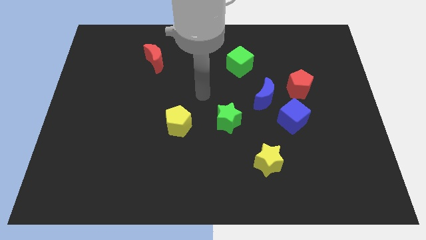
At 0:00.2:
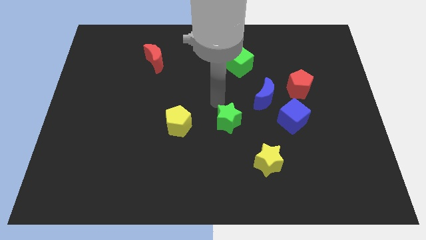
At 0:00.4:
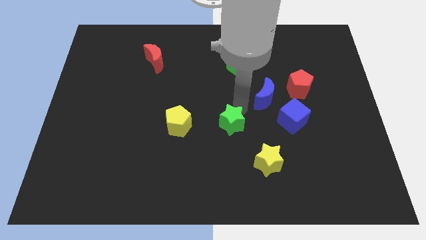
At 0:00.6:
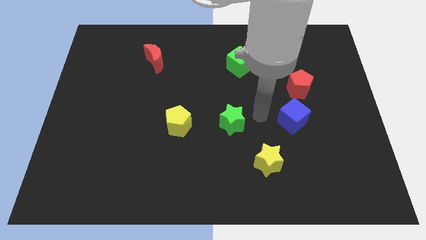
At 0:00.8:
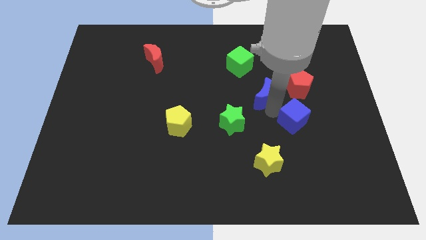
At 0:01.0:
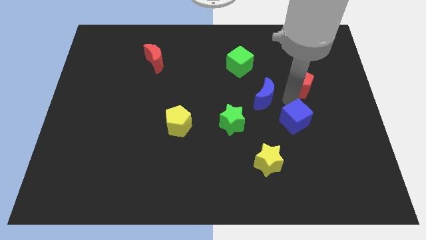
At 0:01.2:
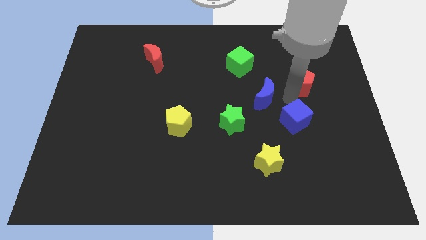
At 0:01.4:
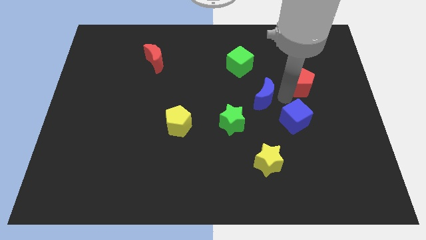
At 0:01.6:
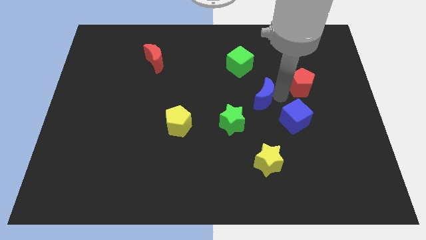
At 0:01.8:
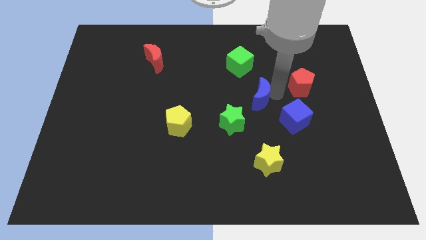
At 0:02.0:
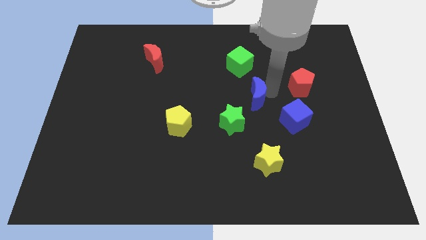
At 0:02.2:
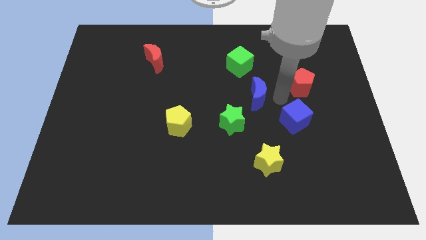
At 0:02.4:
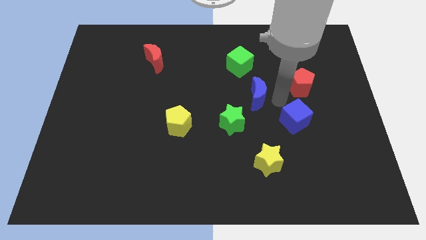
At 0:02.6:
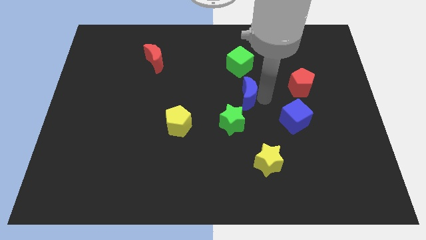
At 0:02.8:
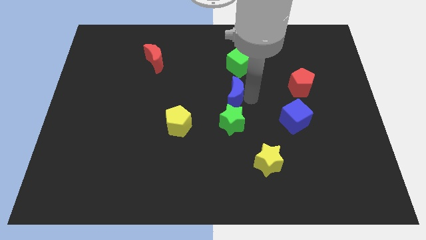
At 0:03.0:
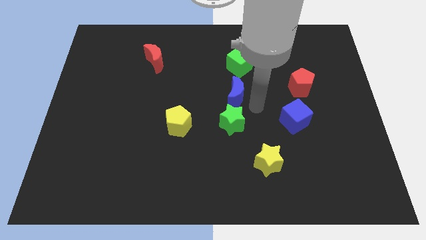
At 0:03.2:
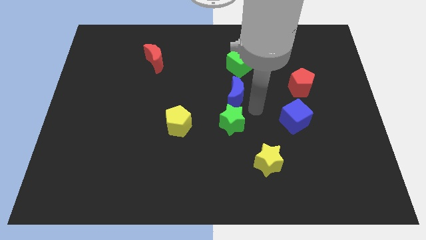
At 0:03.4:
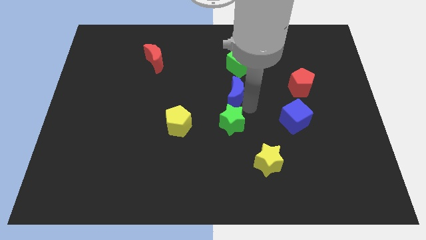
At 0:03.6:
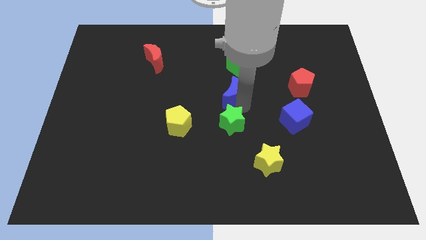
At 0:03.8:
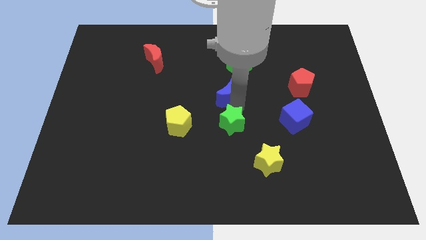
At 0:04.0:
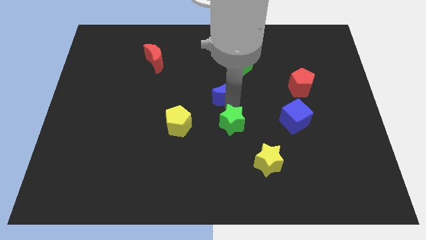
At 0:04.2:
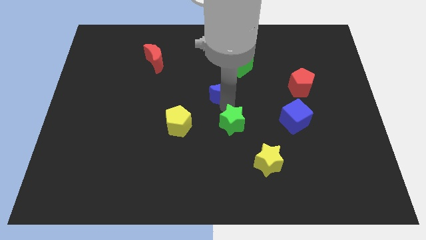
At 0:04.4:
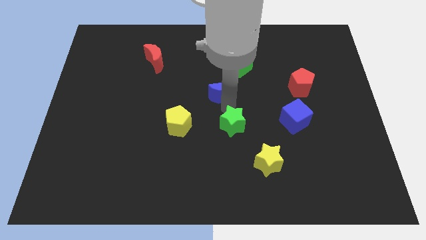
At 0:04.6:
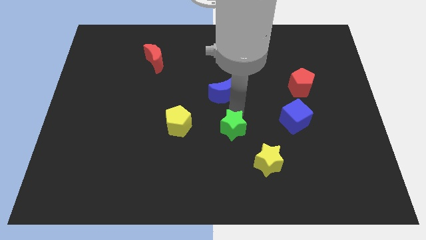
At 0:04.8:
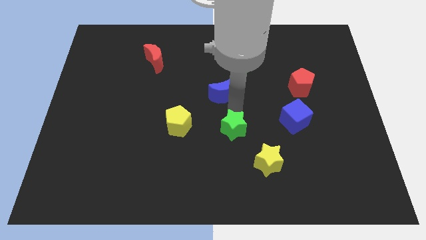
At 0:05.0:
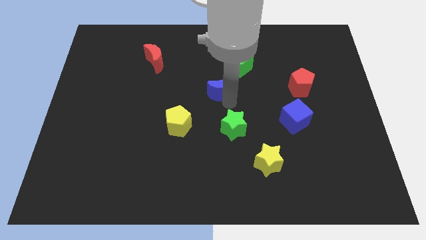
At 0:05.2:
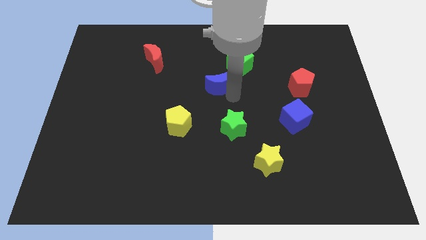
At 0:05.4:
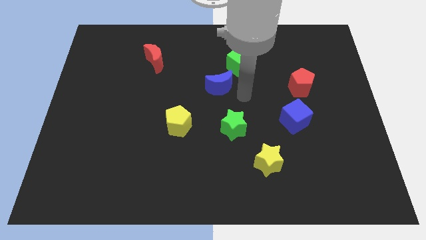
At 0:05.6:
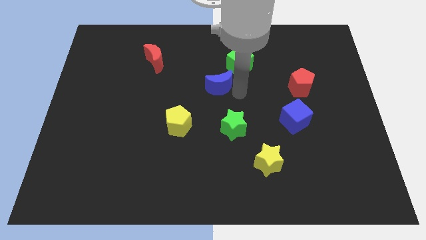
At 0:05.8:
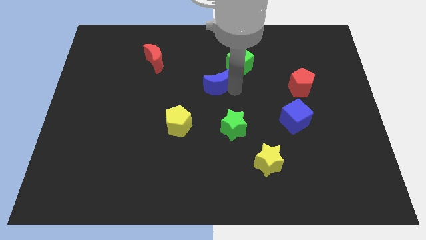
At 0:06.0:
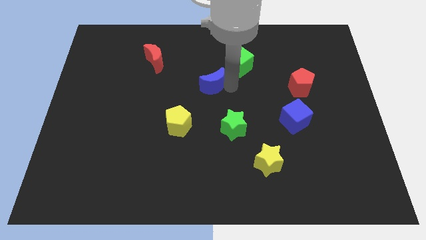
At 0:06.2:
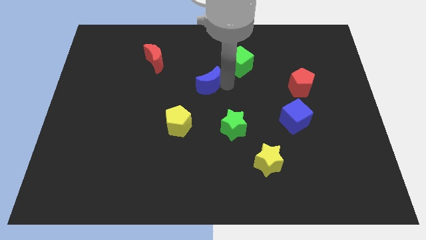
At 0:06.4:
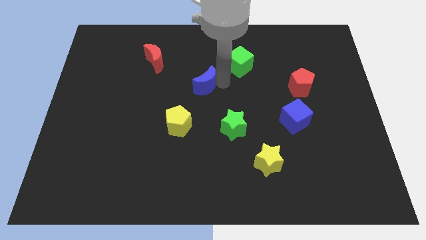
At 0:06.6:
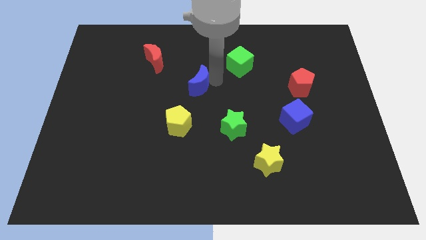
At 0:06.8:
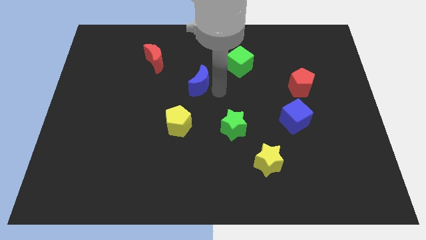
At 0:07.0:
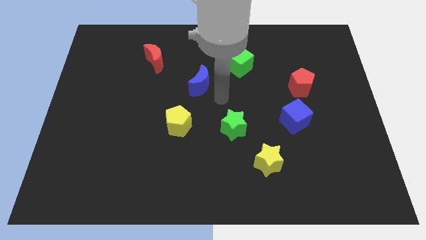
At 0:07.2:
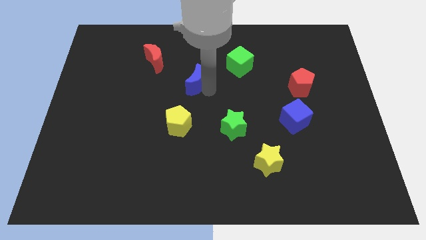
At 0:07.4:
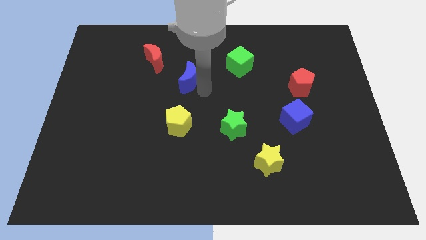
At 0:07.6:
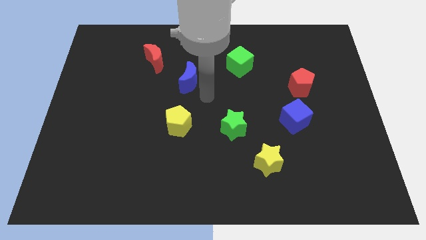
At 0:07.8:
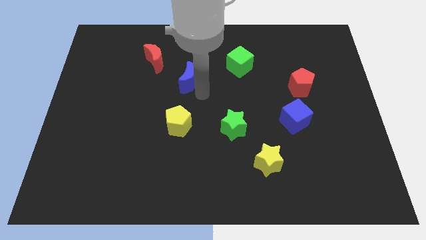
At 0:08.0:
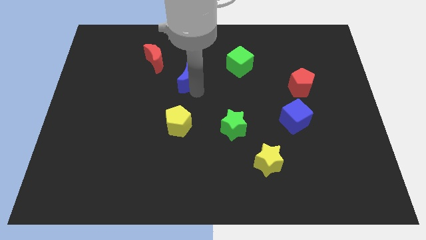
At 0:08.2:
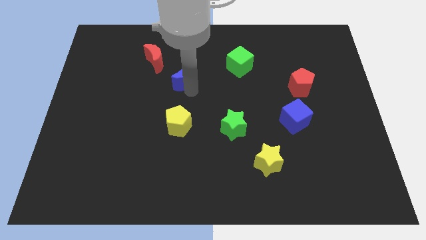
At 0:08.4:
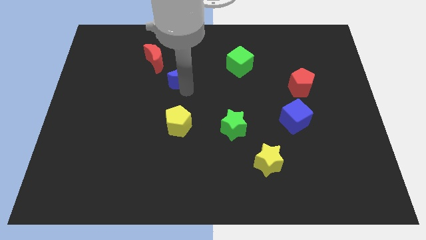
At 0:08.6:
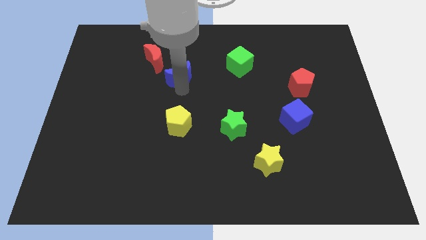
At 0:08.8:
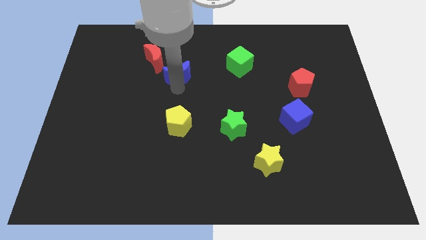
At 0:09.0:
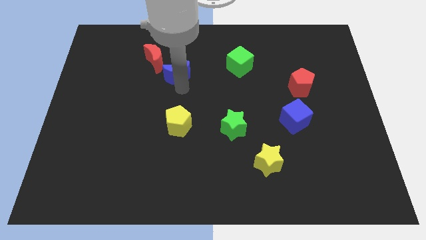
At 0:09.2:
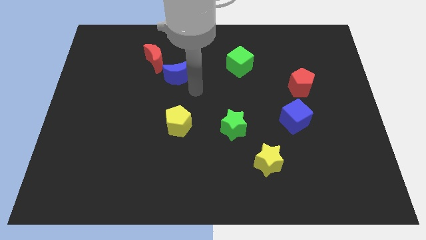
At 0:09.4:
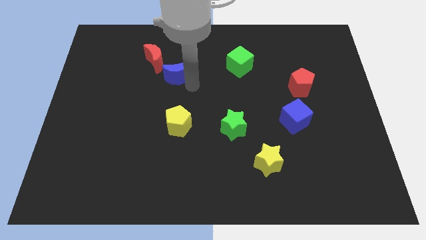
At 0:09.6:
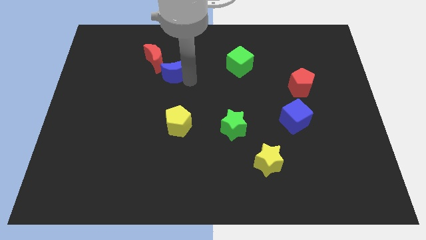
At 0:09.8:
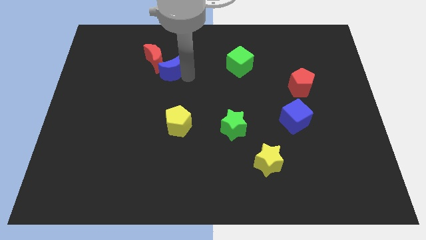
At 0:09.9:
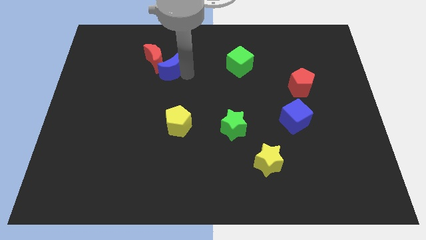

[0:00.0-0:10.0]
put the blue moon towards the red moon

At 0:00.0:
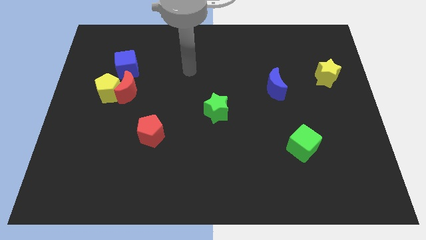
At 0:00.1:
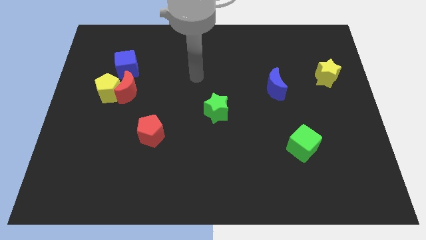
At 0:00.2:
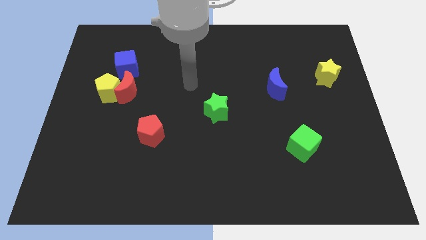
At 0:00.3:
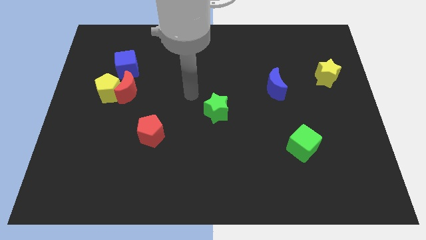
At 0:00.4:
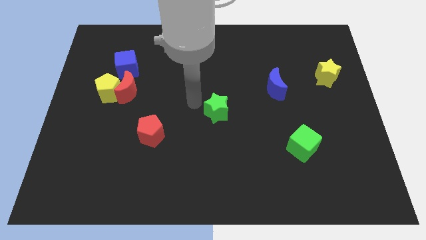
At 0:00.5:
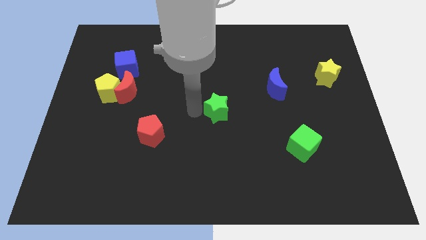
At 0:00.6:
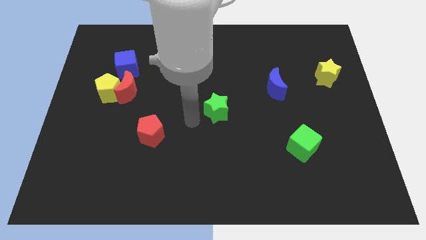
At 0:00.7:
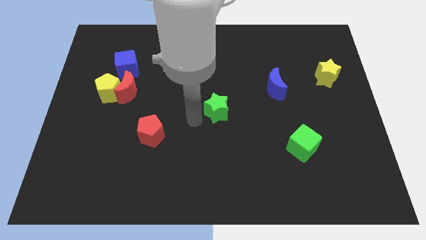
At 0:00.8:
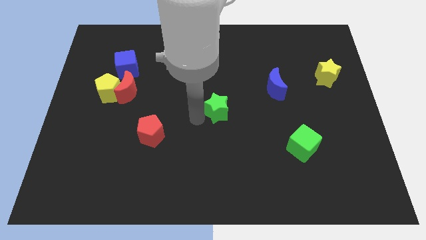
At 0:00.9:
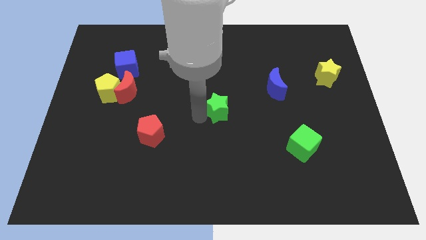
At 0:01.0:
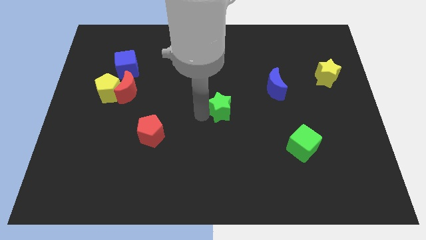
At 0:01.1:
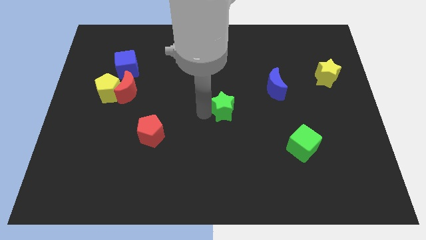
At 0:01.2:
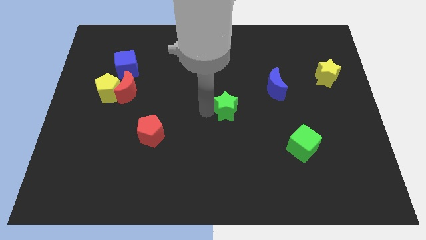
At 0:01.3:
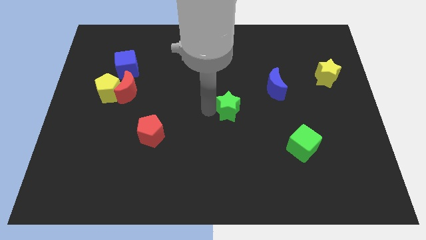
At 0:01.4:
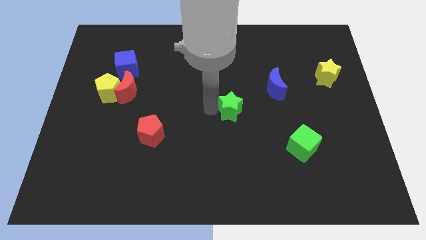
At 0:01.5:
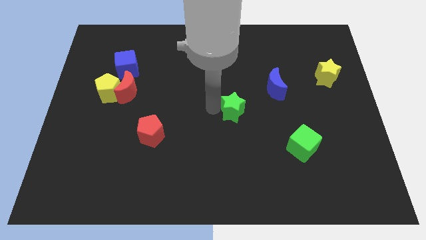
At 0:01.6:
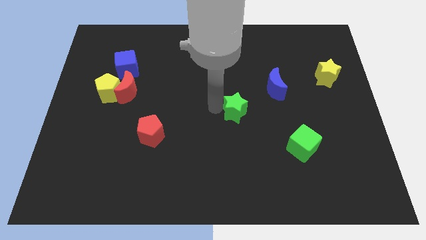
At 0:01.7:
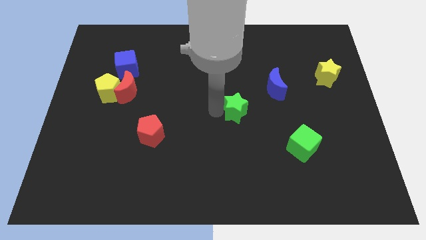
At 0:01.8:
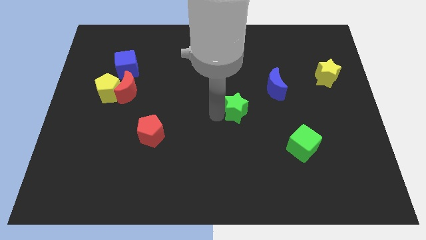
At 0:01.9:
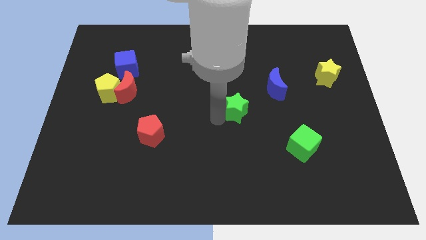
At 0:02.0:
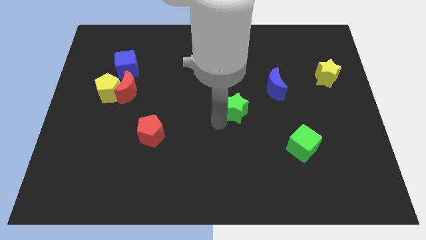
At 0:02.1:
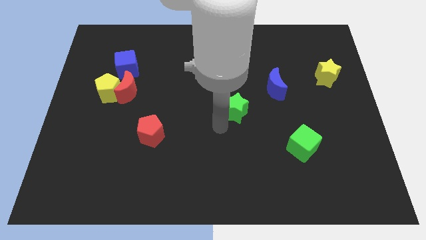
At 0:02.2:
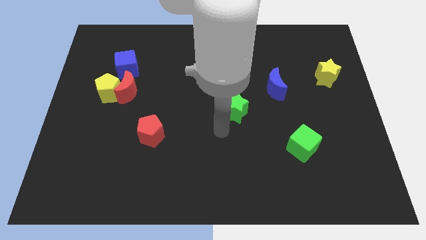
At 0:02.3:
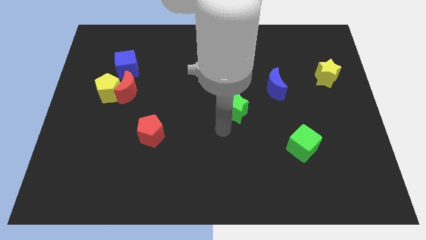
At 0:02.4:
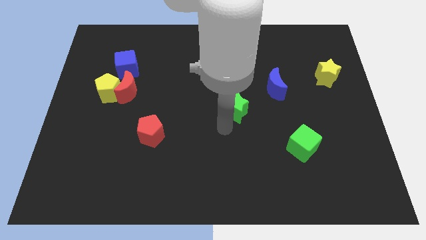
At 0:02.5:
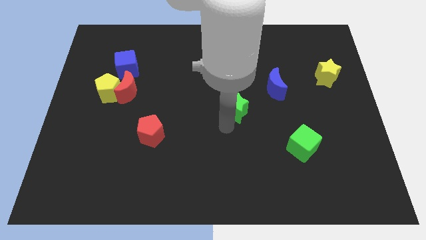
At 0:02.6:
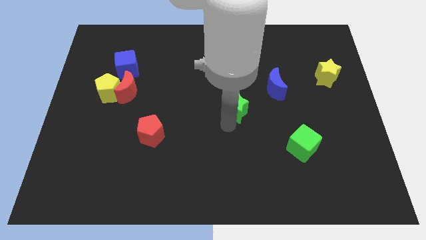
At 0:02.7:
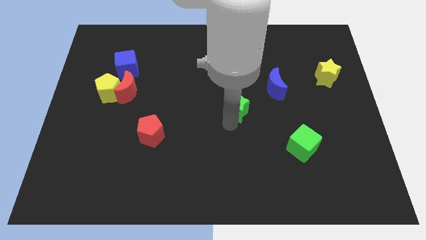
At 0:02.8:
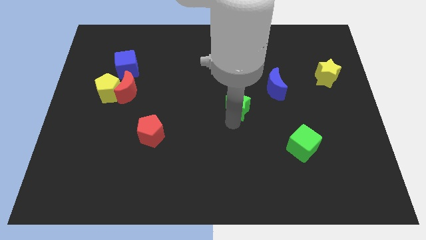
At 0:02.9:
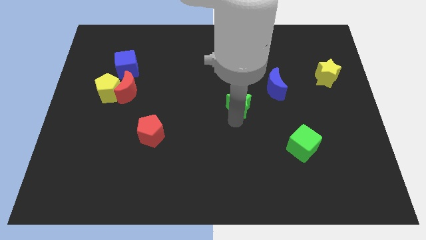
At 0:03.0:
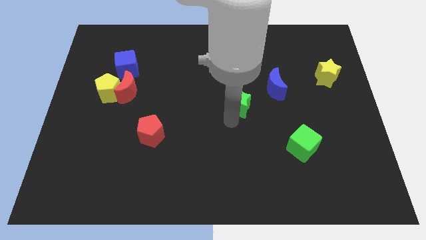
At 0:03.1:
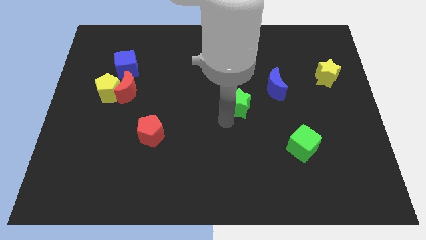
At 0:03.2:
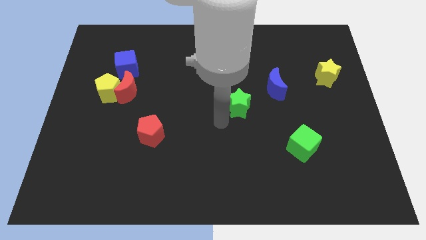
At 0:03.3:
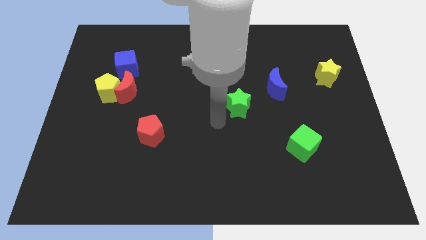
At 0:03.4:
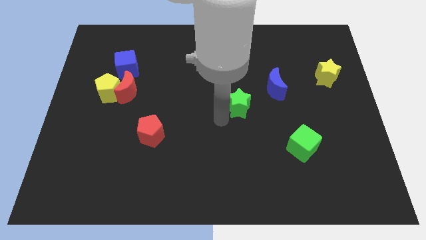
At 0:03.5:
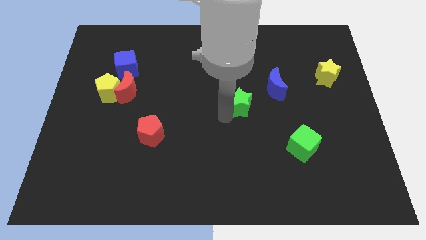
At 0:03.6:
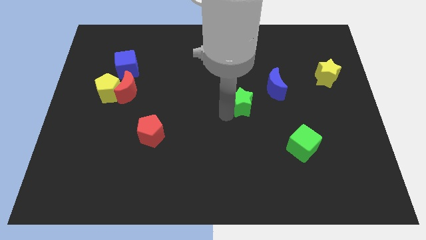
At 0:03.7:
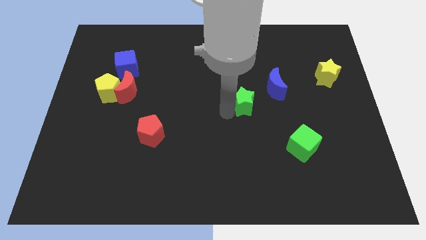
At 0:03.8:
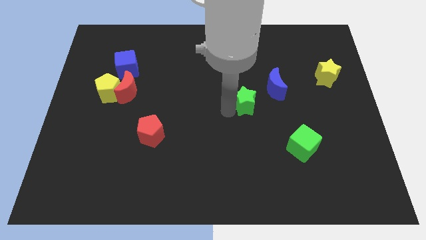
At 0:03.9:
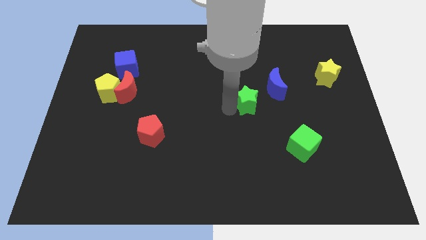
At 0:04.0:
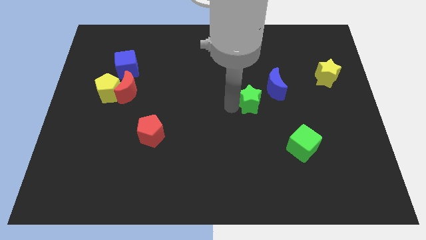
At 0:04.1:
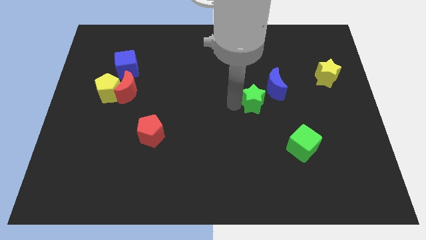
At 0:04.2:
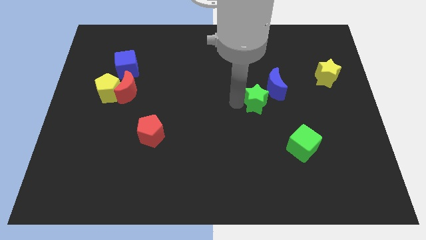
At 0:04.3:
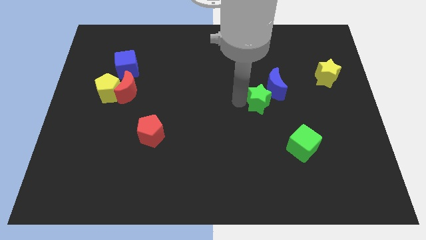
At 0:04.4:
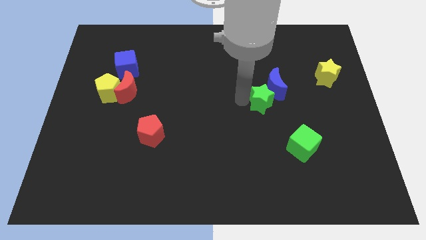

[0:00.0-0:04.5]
slide the green star close to the blue moon
